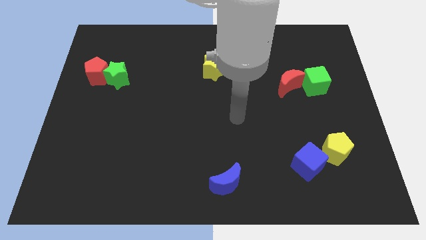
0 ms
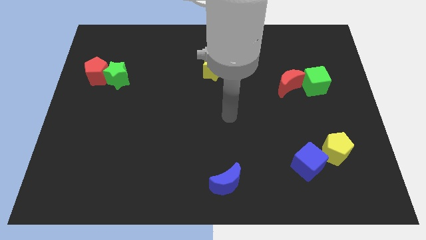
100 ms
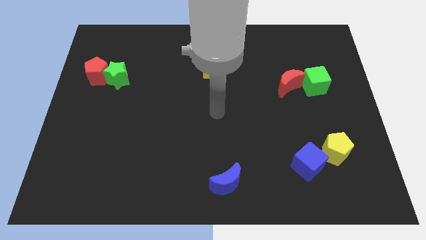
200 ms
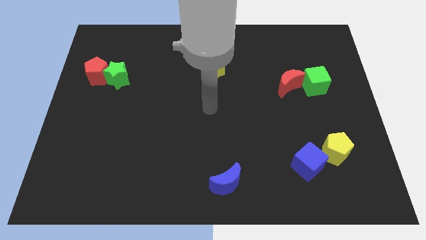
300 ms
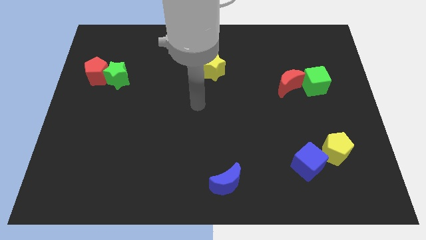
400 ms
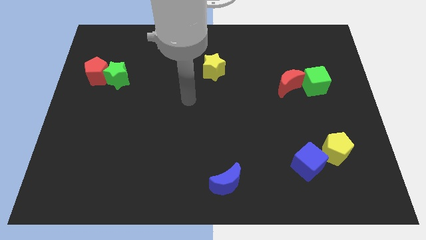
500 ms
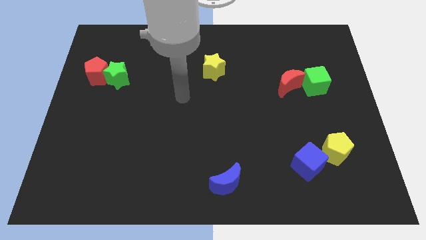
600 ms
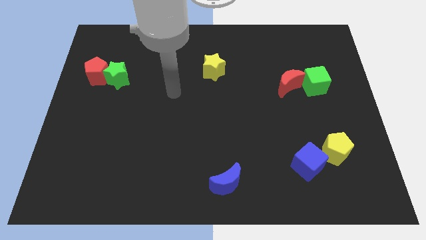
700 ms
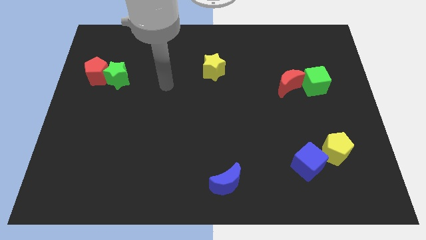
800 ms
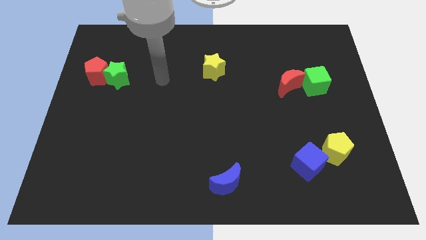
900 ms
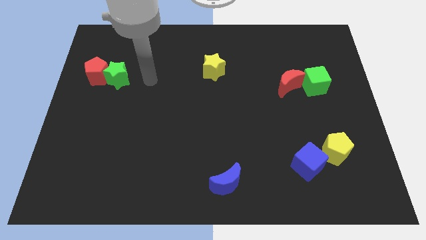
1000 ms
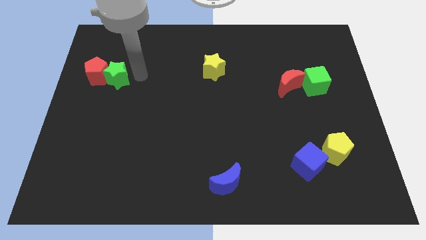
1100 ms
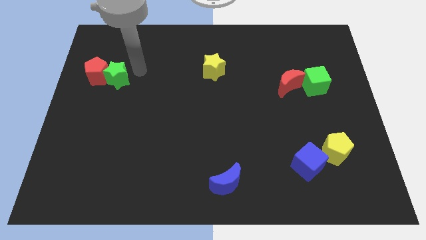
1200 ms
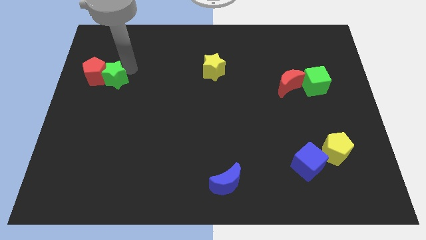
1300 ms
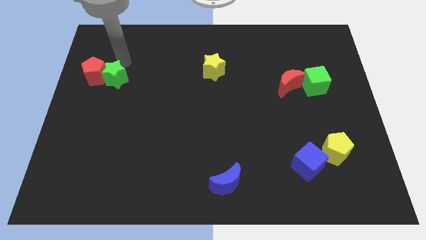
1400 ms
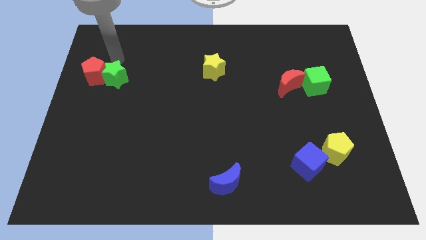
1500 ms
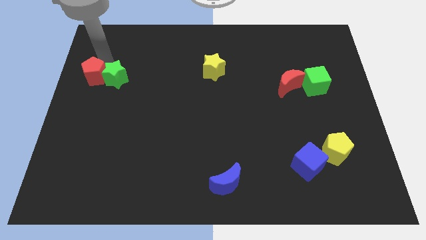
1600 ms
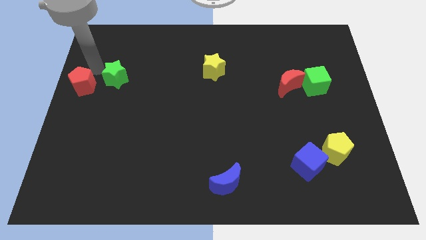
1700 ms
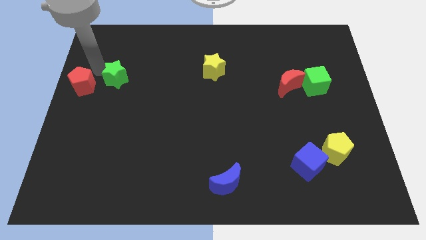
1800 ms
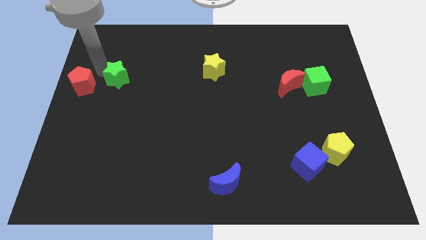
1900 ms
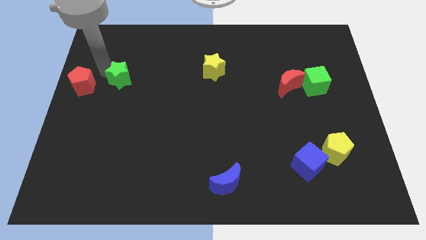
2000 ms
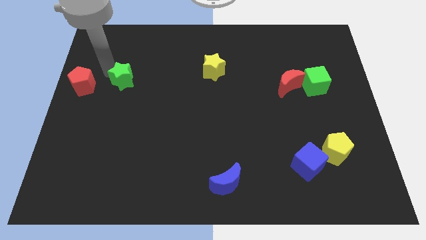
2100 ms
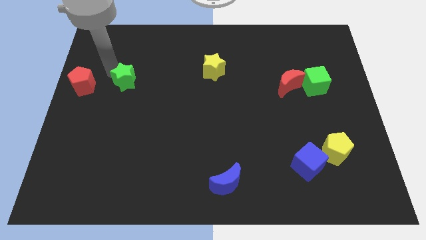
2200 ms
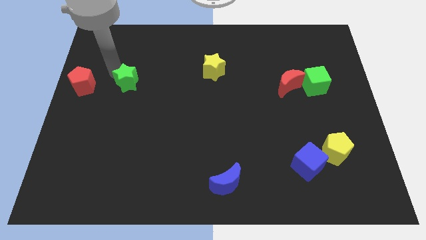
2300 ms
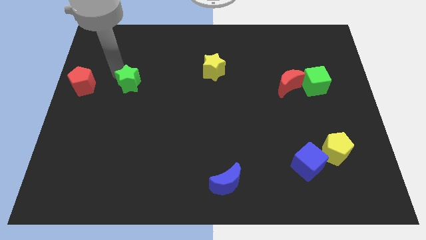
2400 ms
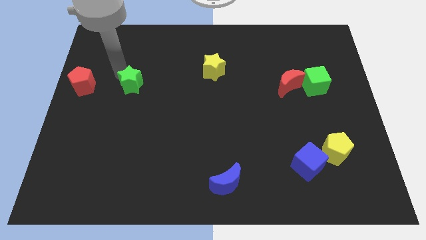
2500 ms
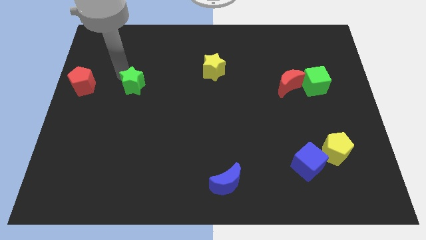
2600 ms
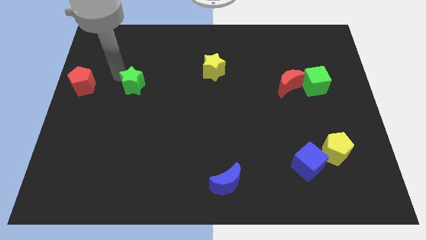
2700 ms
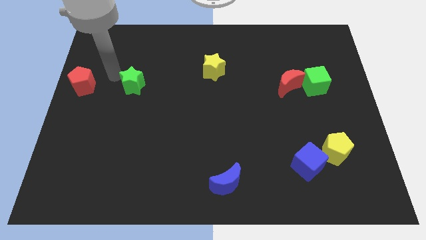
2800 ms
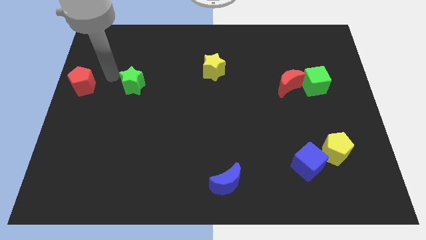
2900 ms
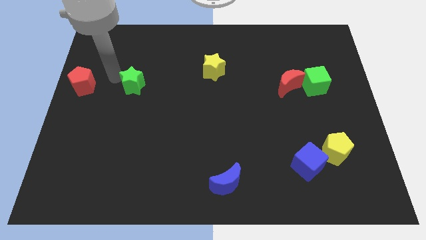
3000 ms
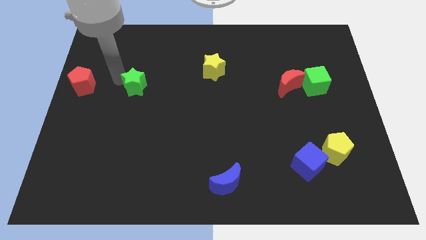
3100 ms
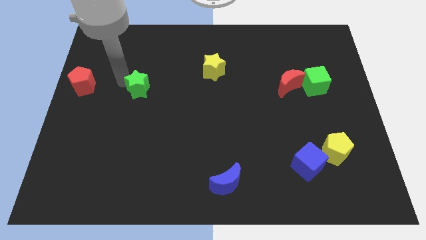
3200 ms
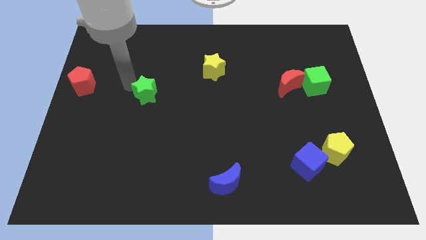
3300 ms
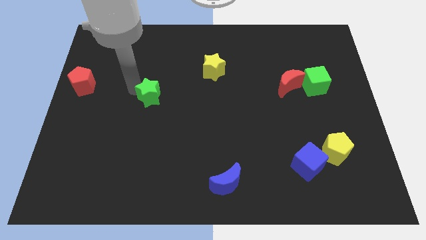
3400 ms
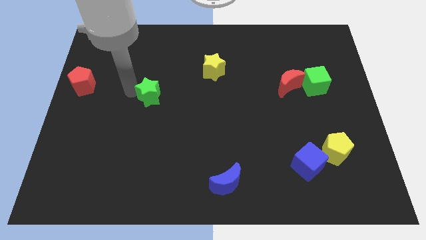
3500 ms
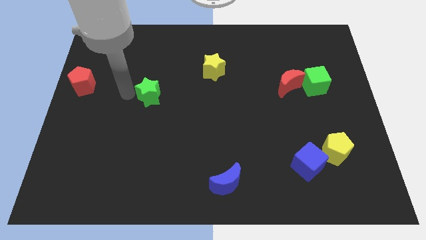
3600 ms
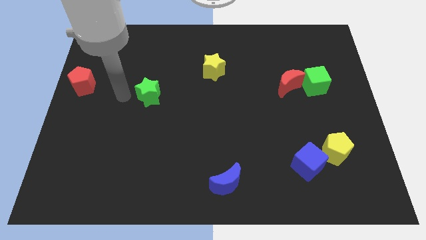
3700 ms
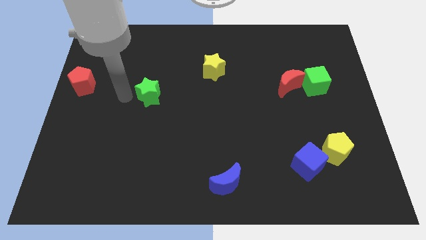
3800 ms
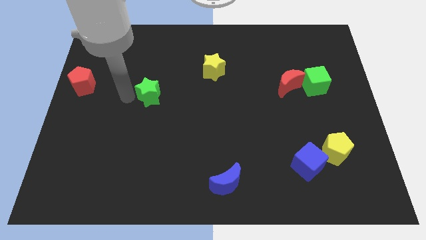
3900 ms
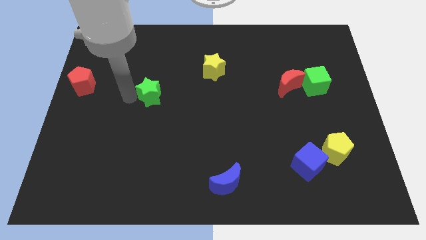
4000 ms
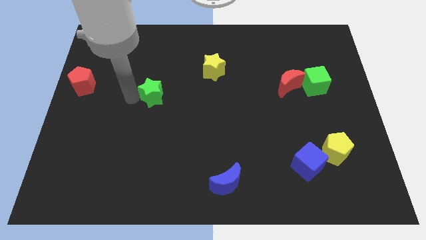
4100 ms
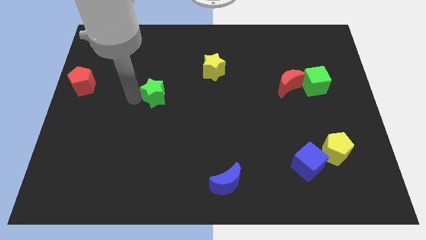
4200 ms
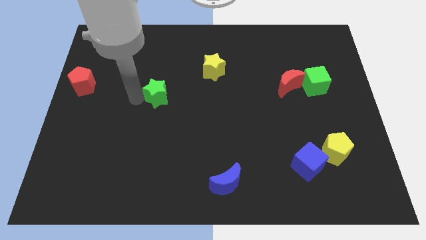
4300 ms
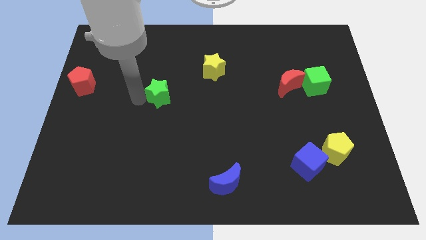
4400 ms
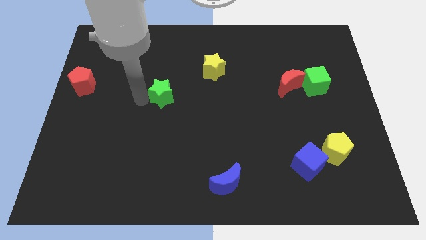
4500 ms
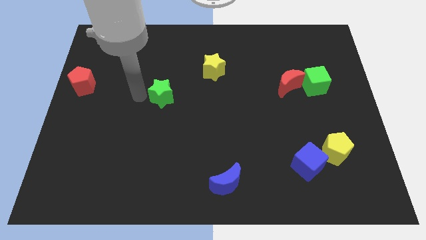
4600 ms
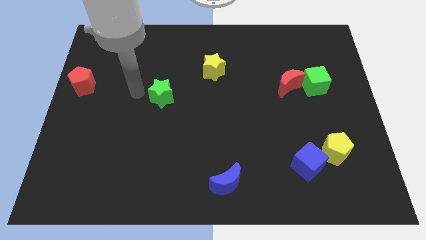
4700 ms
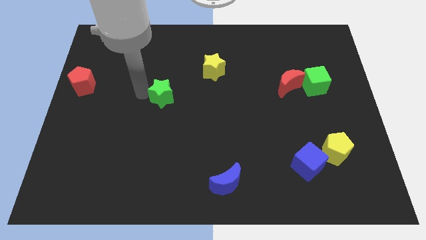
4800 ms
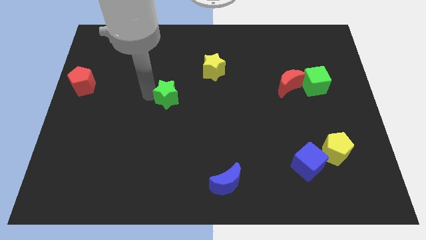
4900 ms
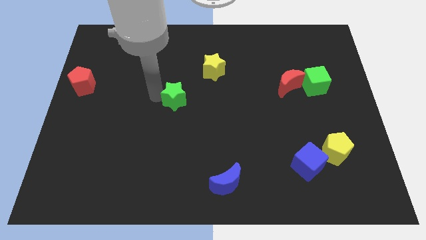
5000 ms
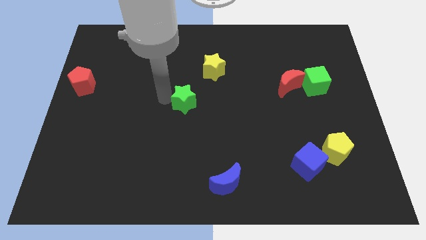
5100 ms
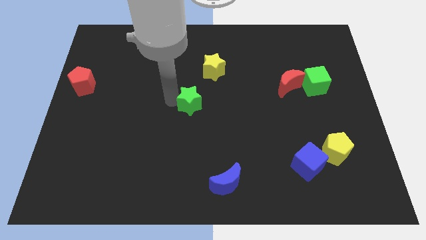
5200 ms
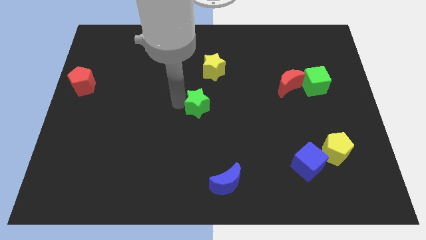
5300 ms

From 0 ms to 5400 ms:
push the green star to the bottom of the yellow star

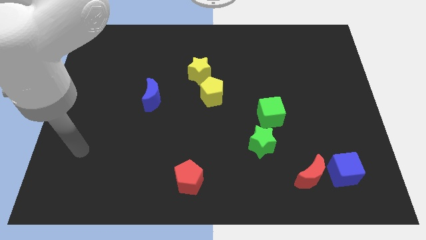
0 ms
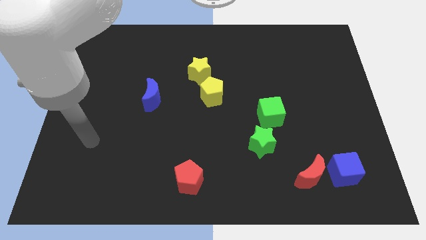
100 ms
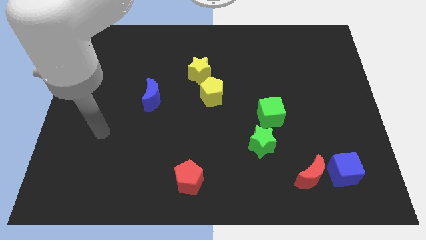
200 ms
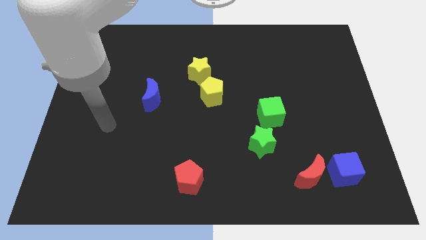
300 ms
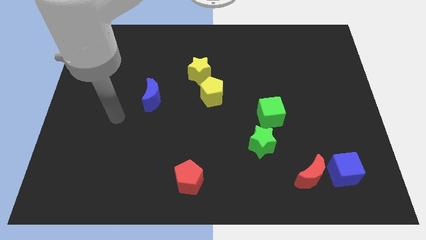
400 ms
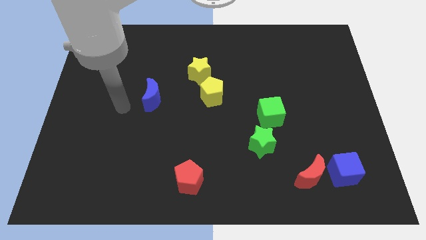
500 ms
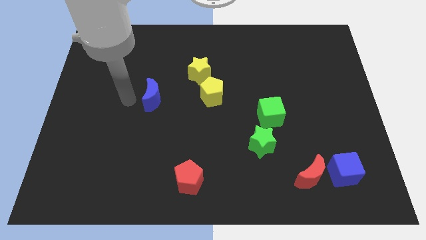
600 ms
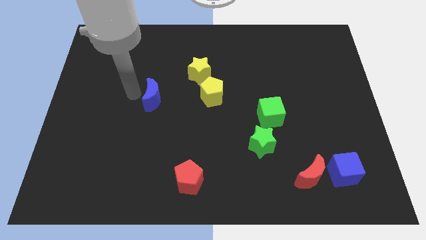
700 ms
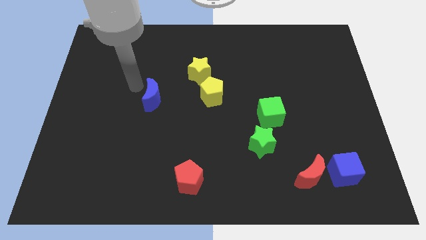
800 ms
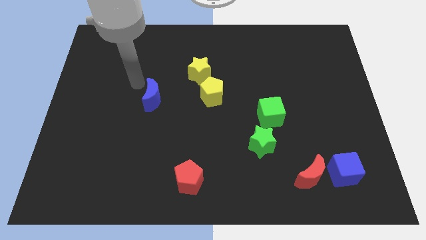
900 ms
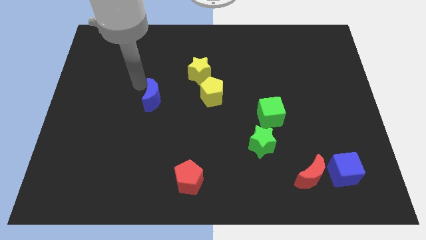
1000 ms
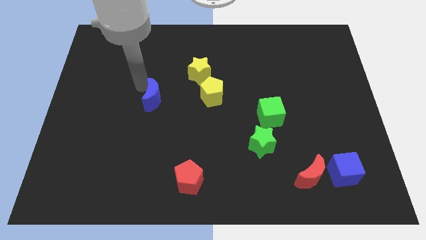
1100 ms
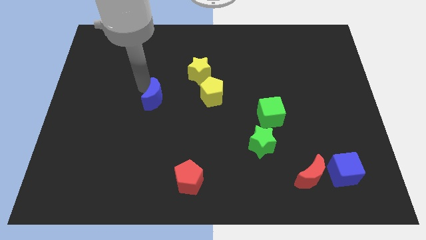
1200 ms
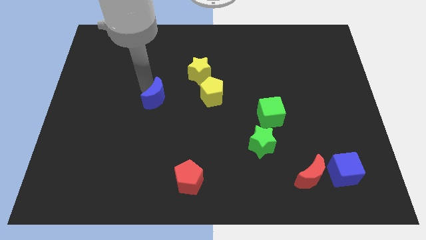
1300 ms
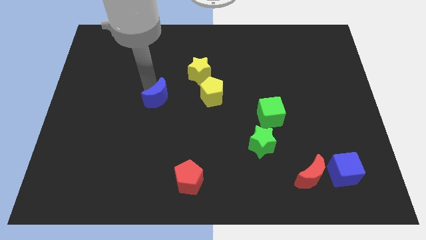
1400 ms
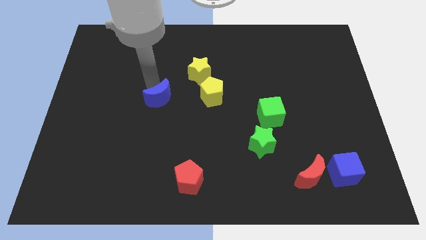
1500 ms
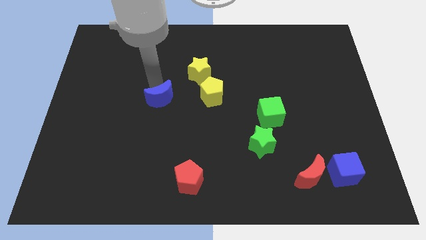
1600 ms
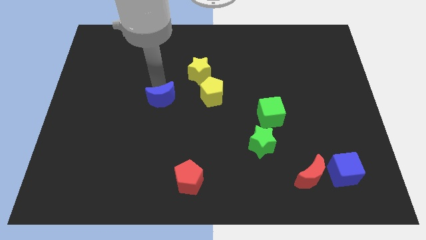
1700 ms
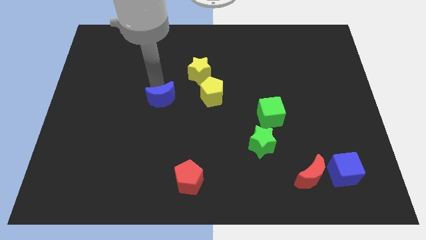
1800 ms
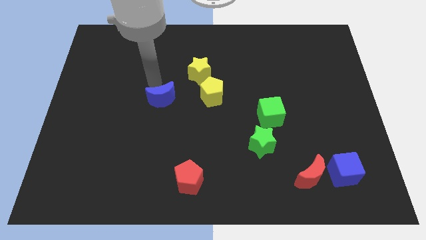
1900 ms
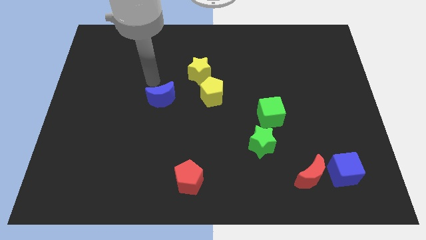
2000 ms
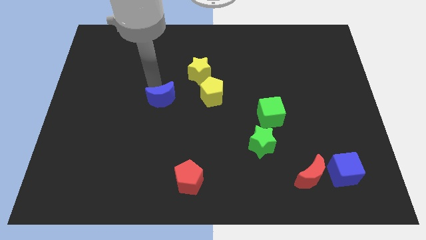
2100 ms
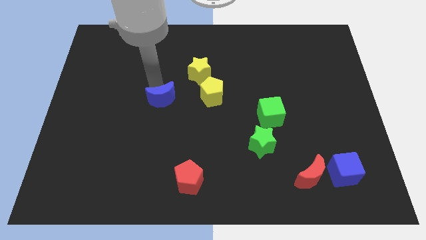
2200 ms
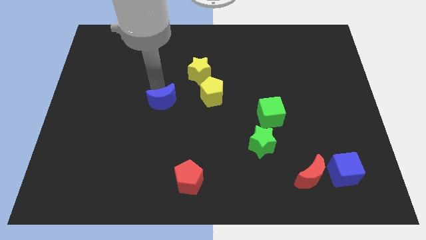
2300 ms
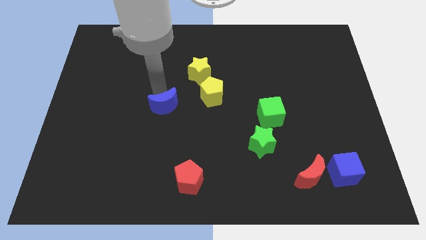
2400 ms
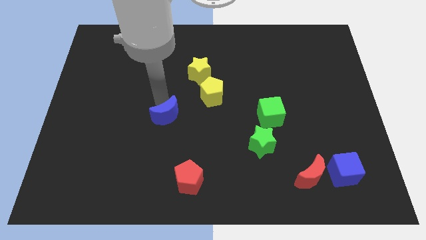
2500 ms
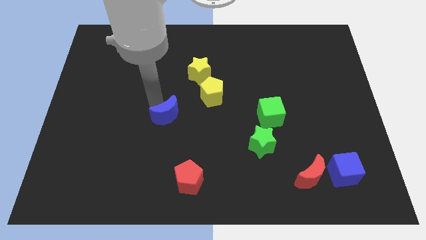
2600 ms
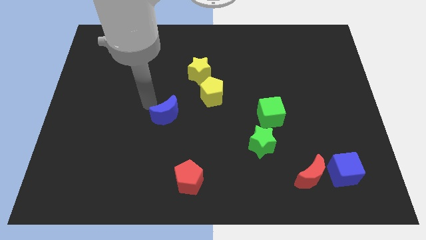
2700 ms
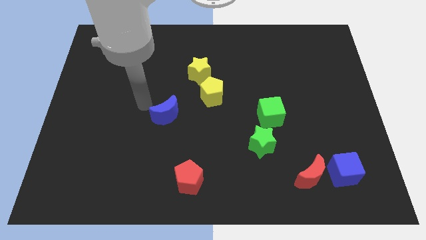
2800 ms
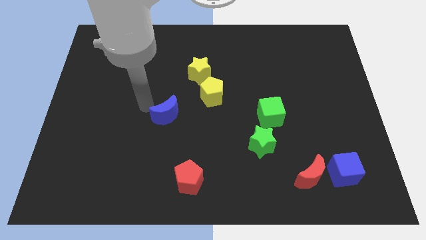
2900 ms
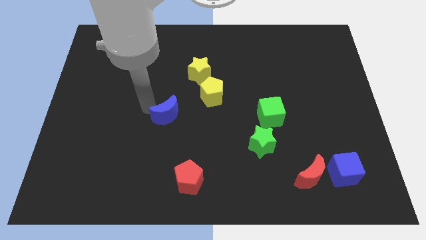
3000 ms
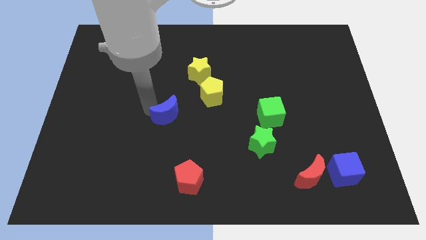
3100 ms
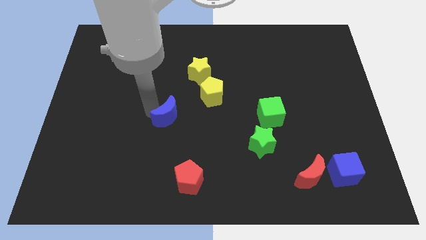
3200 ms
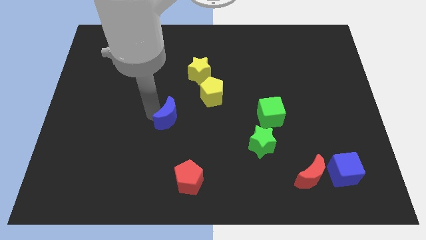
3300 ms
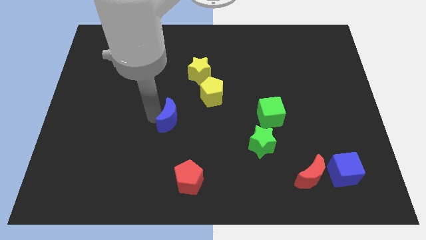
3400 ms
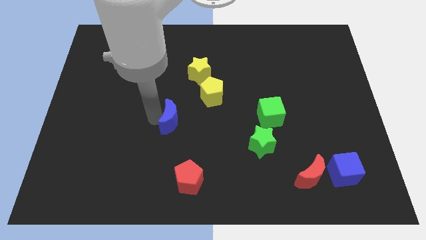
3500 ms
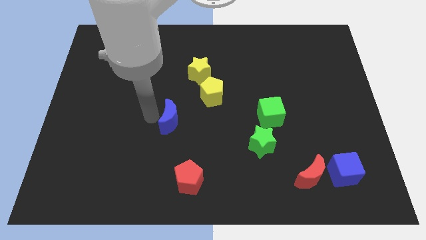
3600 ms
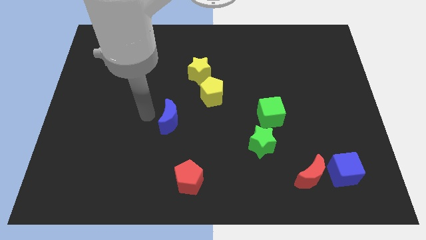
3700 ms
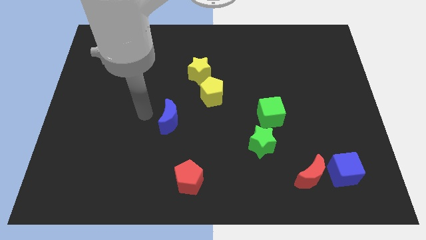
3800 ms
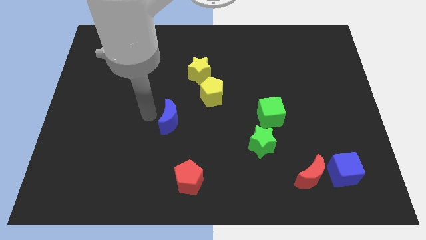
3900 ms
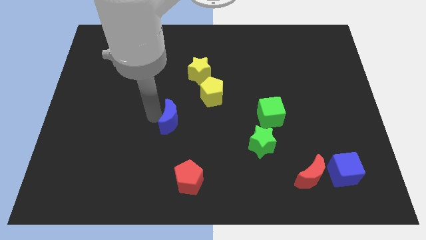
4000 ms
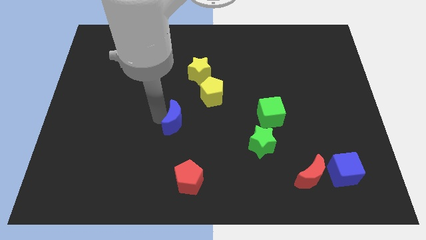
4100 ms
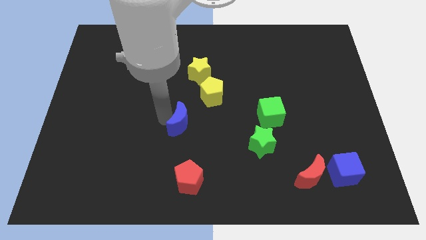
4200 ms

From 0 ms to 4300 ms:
put the blue moon to the top side of the red pentagon
